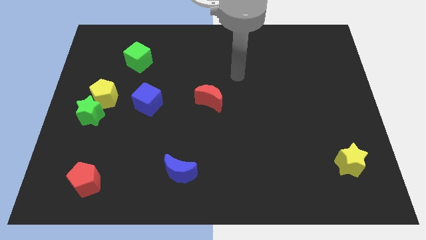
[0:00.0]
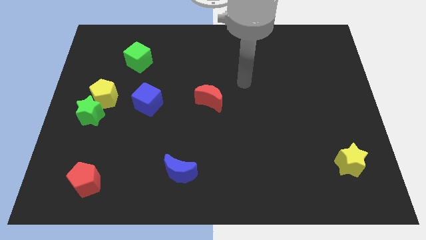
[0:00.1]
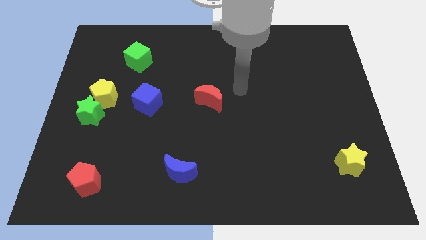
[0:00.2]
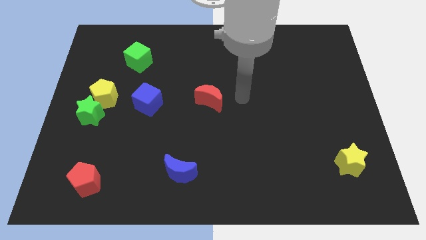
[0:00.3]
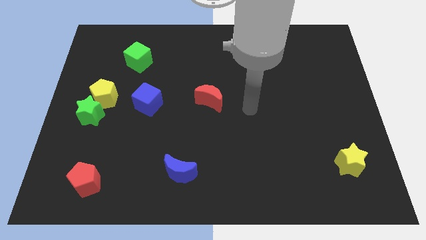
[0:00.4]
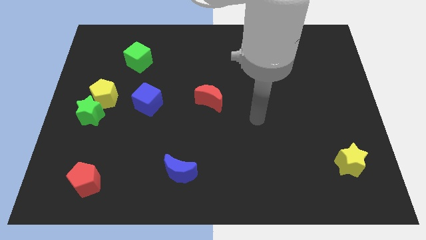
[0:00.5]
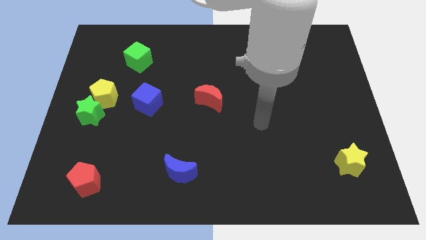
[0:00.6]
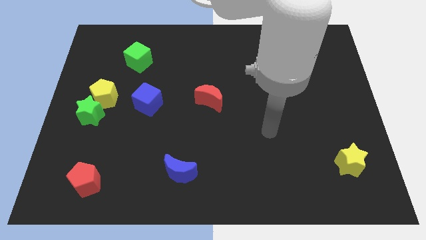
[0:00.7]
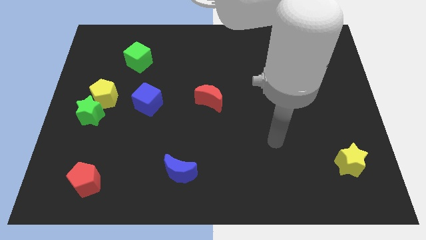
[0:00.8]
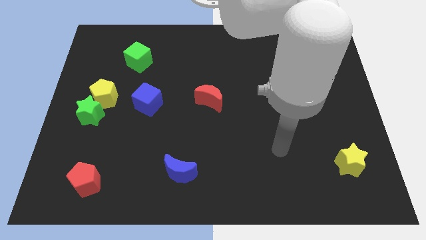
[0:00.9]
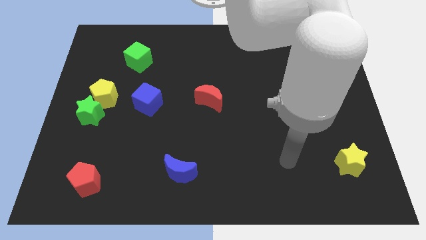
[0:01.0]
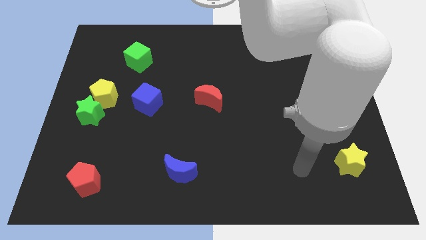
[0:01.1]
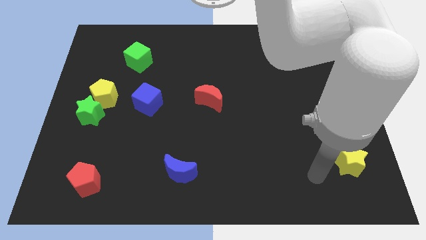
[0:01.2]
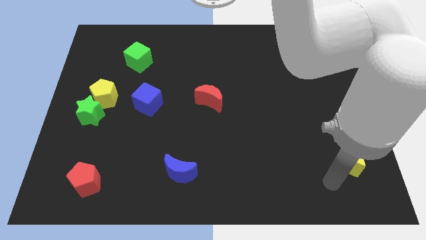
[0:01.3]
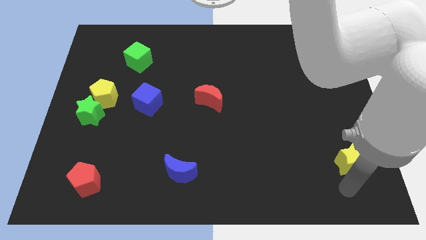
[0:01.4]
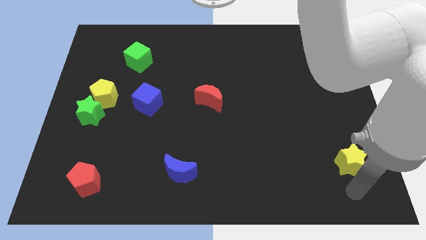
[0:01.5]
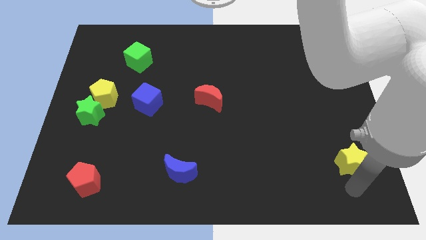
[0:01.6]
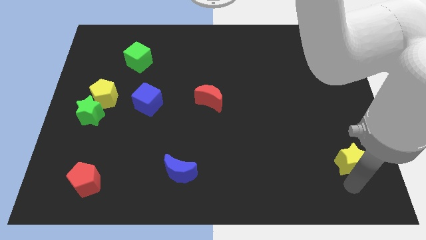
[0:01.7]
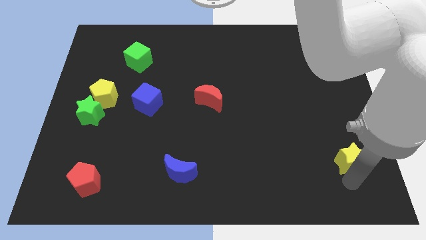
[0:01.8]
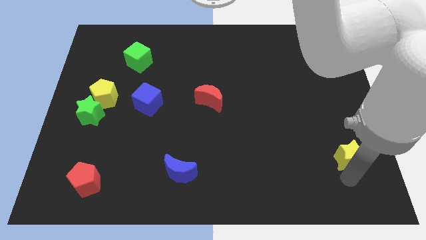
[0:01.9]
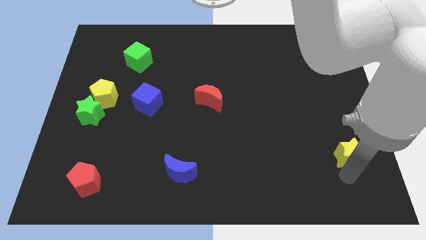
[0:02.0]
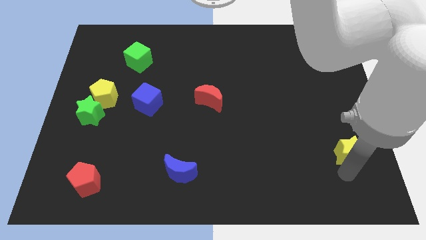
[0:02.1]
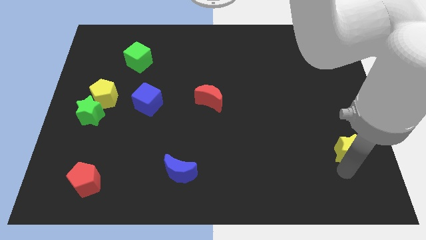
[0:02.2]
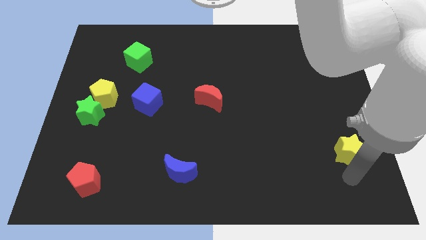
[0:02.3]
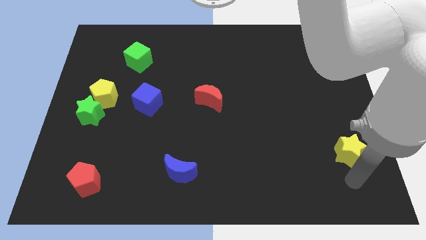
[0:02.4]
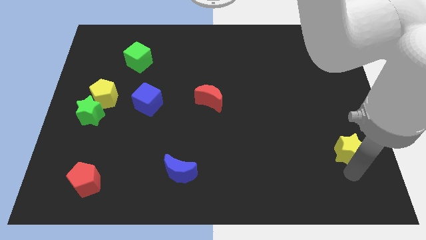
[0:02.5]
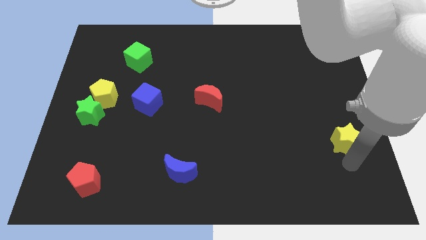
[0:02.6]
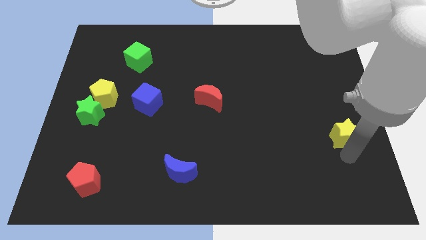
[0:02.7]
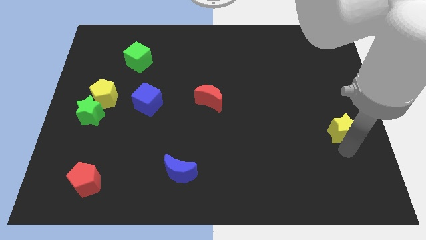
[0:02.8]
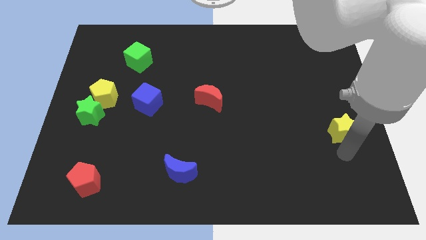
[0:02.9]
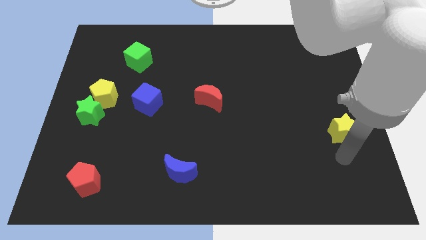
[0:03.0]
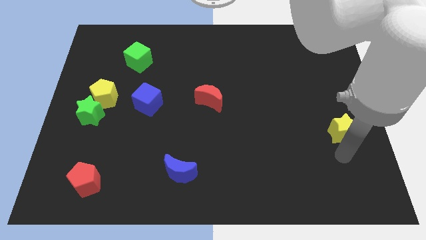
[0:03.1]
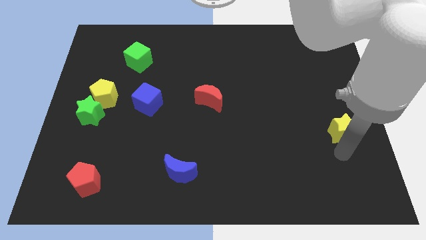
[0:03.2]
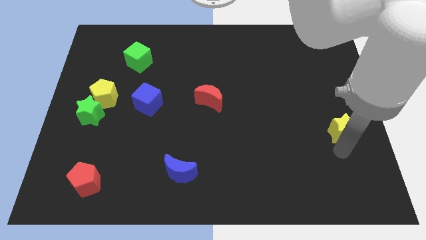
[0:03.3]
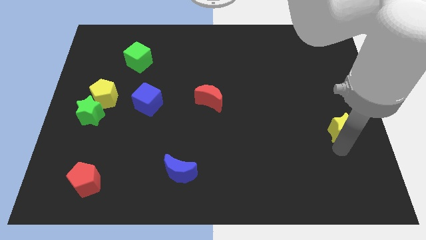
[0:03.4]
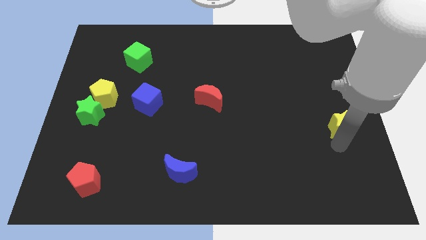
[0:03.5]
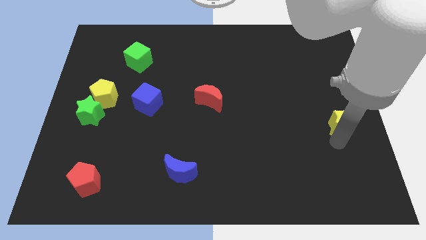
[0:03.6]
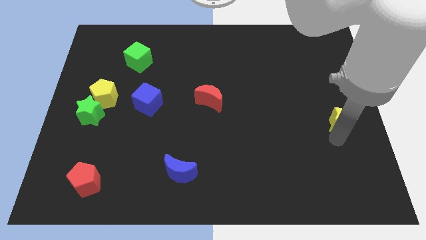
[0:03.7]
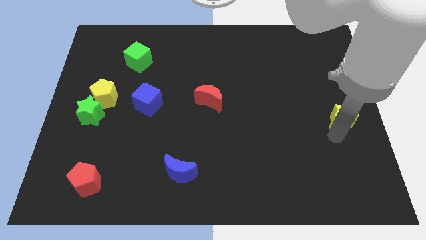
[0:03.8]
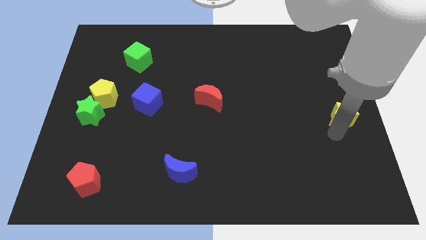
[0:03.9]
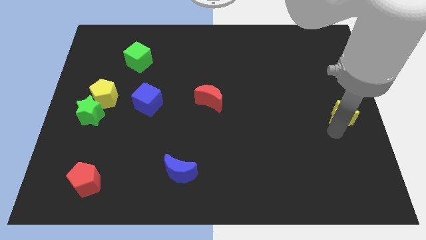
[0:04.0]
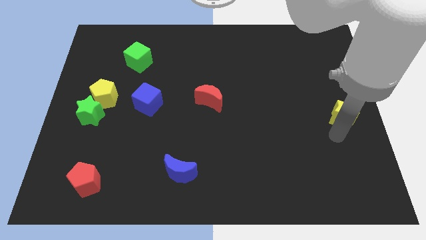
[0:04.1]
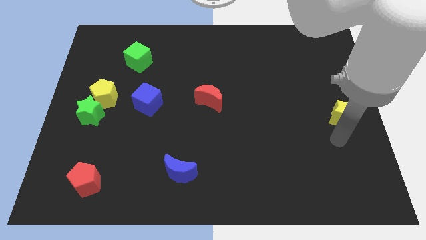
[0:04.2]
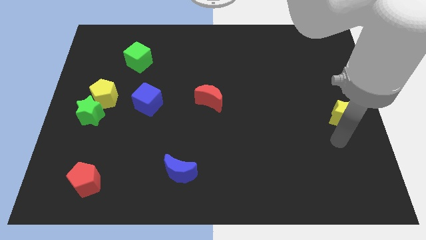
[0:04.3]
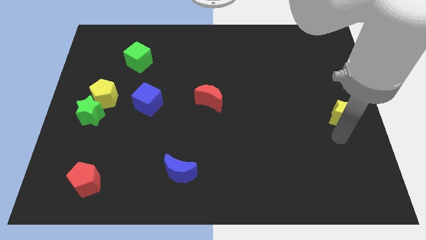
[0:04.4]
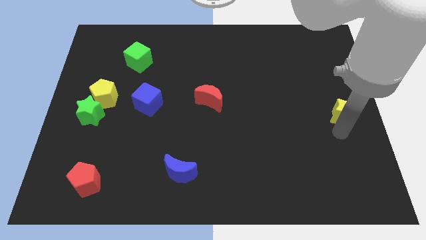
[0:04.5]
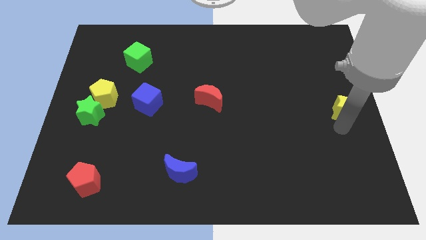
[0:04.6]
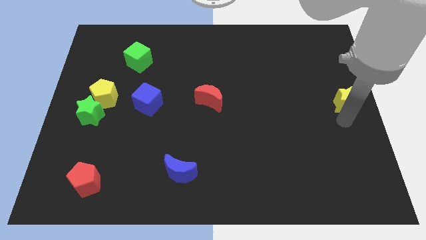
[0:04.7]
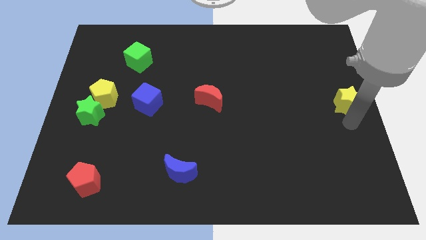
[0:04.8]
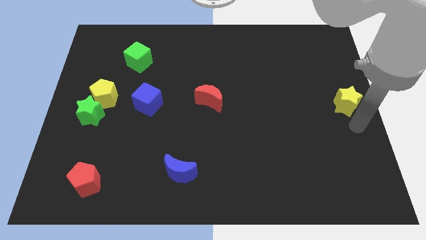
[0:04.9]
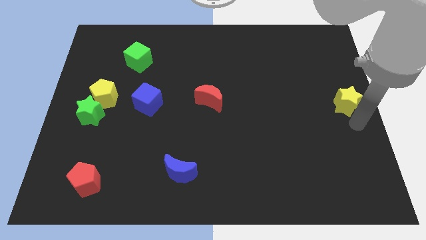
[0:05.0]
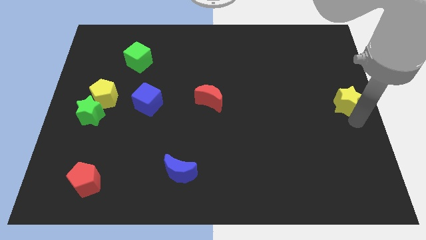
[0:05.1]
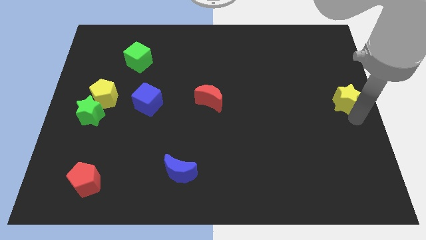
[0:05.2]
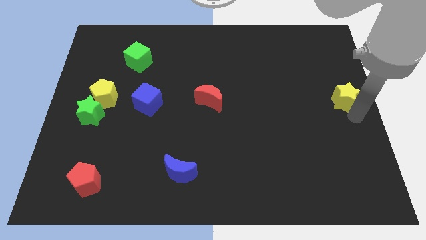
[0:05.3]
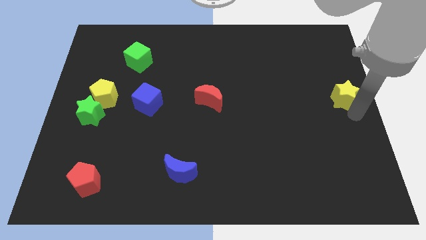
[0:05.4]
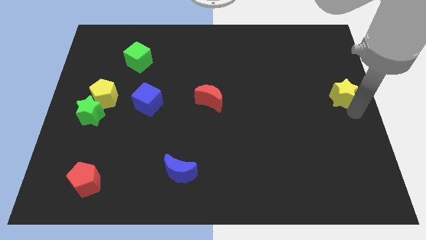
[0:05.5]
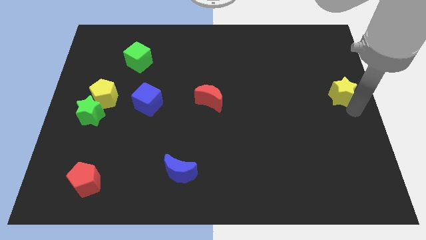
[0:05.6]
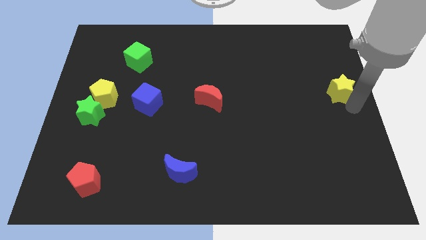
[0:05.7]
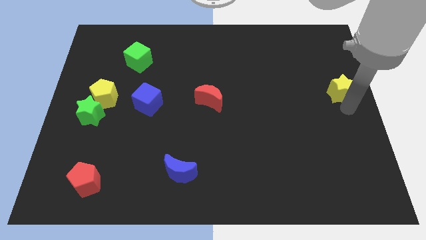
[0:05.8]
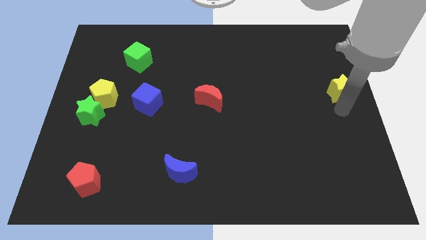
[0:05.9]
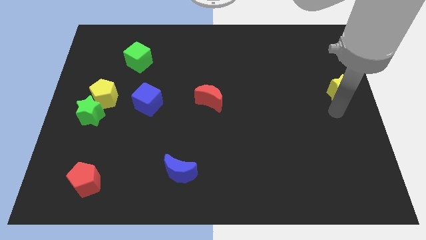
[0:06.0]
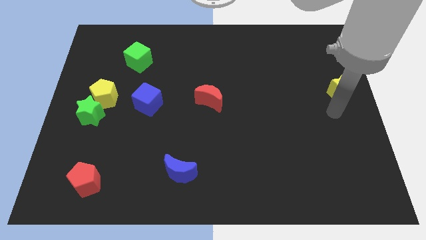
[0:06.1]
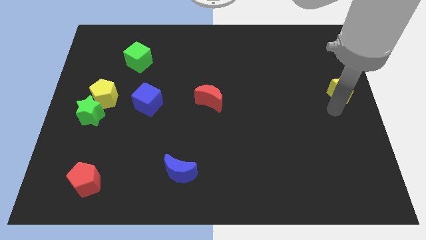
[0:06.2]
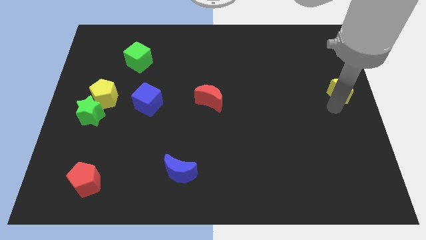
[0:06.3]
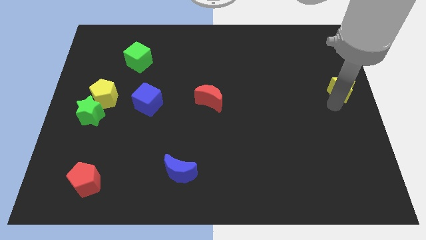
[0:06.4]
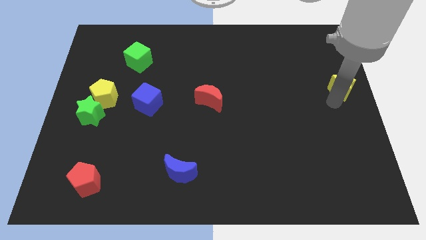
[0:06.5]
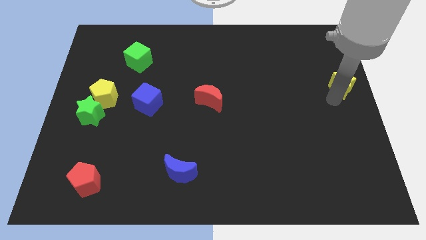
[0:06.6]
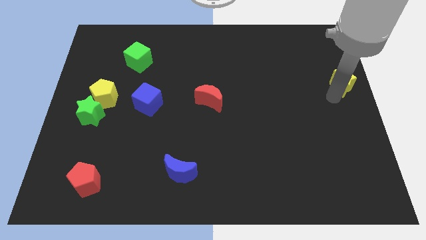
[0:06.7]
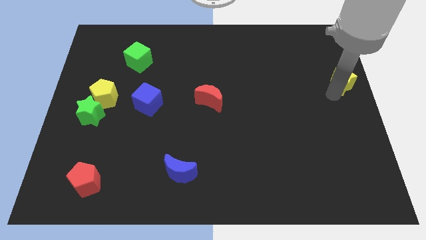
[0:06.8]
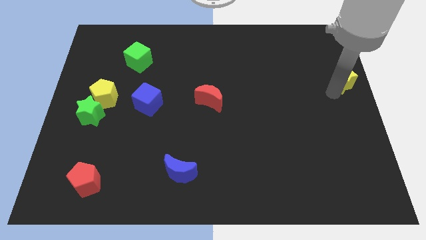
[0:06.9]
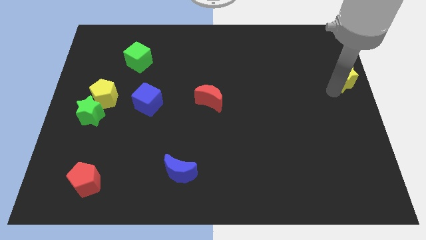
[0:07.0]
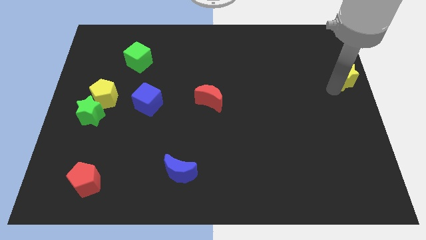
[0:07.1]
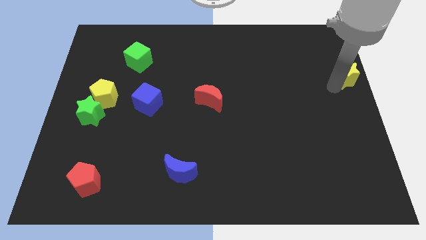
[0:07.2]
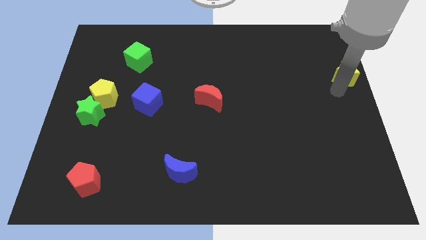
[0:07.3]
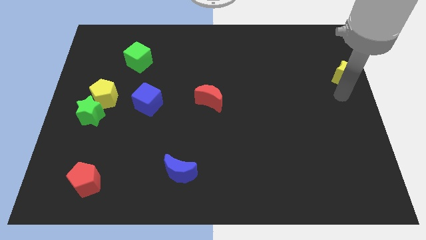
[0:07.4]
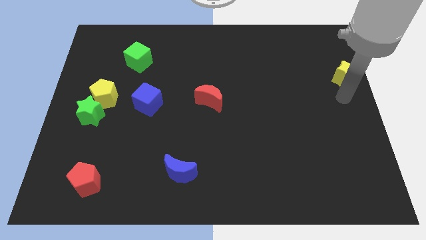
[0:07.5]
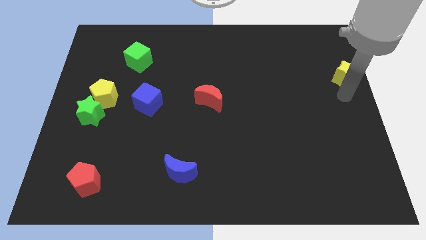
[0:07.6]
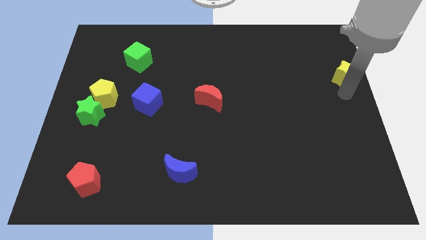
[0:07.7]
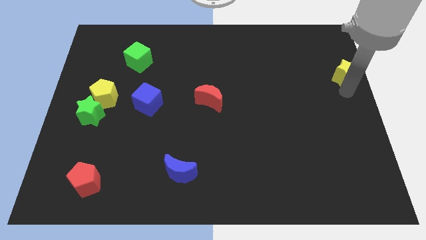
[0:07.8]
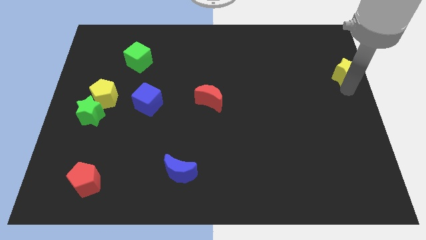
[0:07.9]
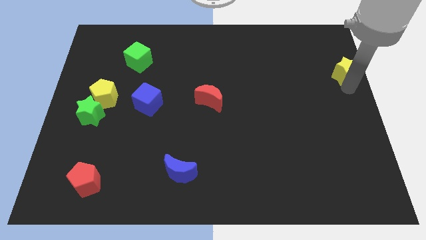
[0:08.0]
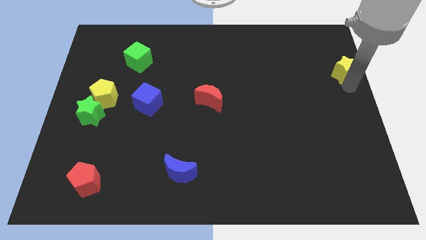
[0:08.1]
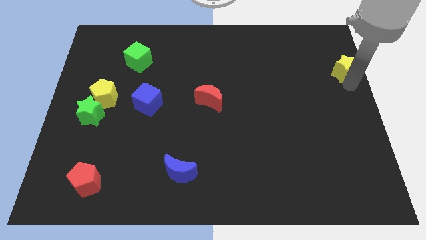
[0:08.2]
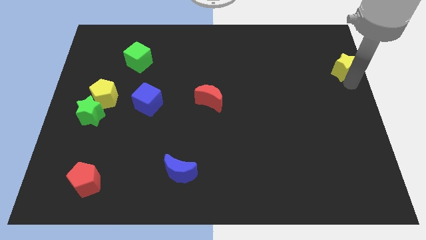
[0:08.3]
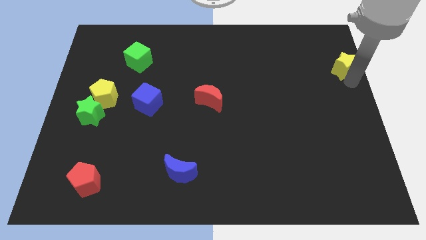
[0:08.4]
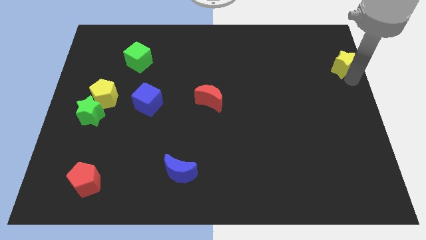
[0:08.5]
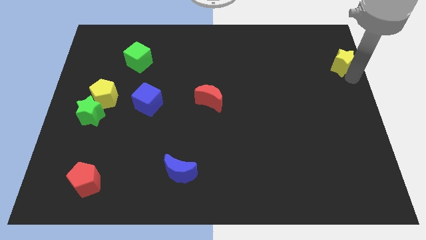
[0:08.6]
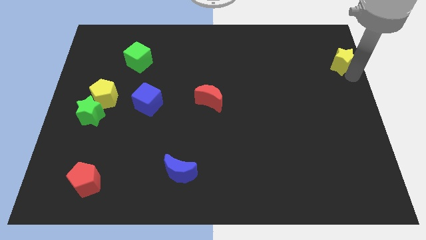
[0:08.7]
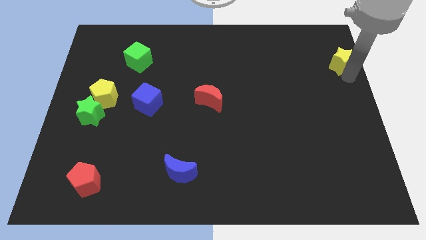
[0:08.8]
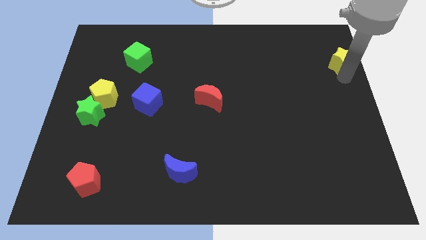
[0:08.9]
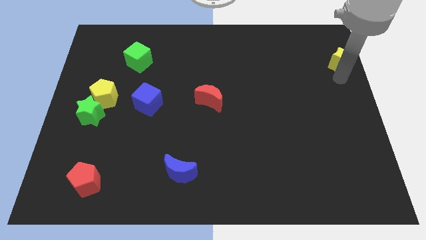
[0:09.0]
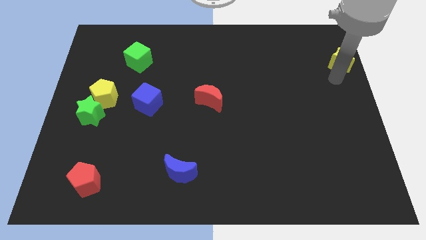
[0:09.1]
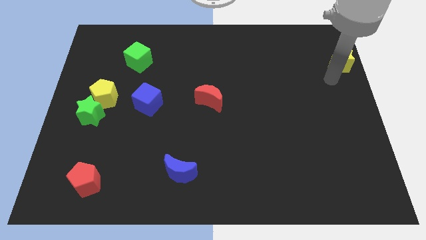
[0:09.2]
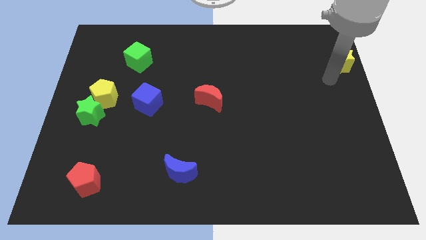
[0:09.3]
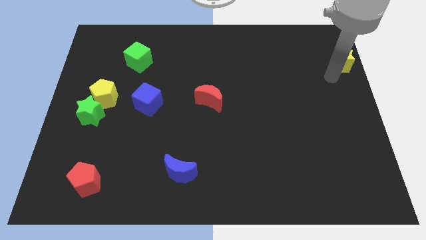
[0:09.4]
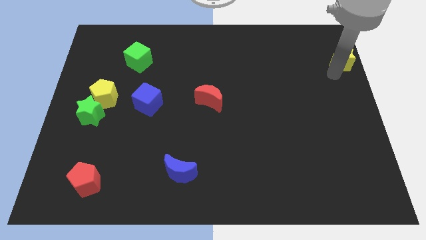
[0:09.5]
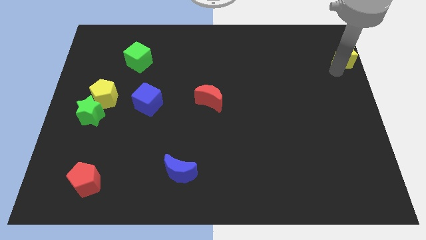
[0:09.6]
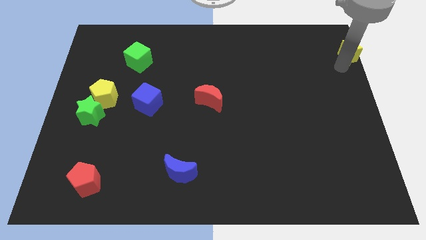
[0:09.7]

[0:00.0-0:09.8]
put the yellow star to the upper right corner
